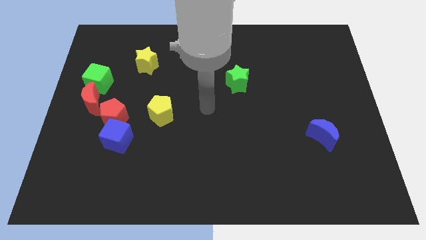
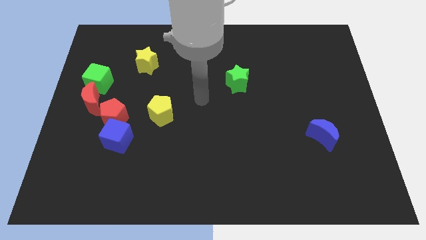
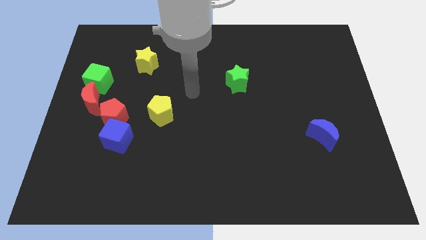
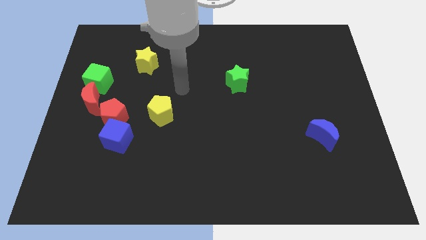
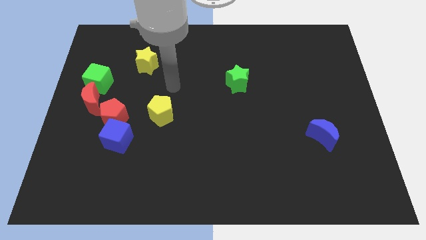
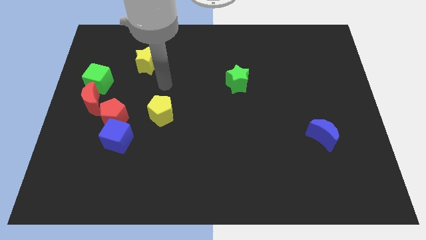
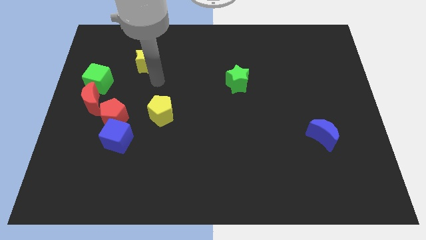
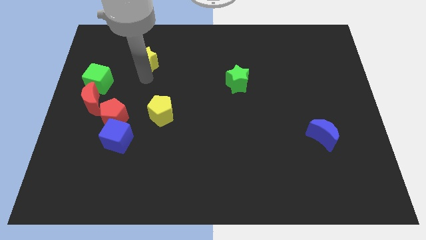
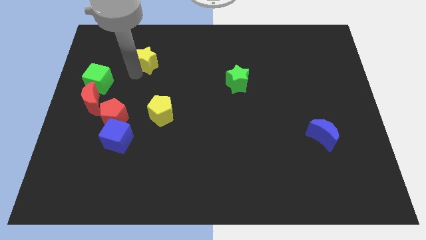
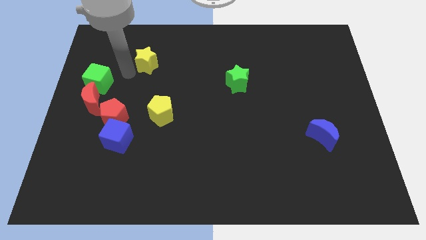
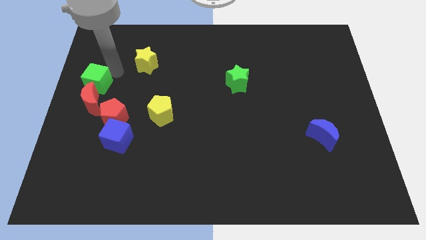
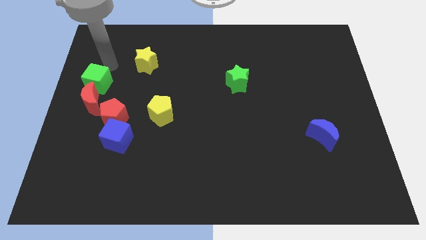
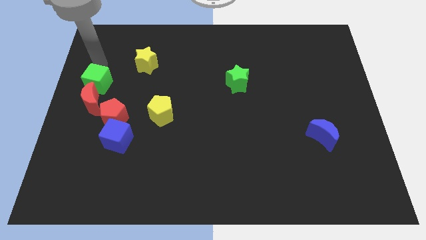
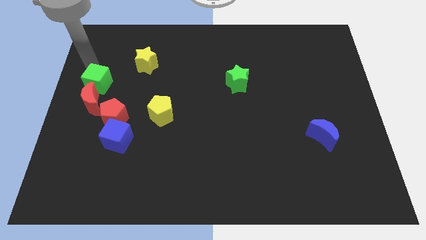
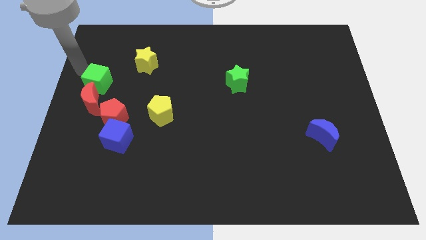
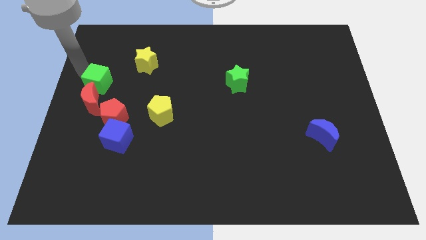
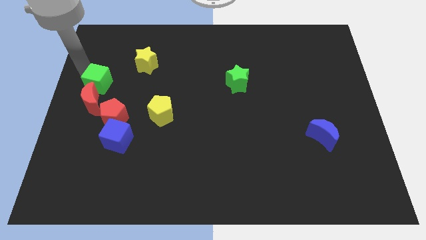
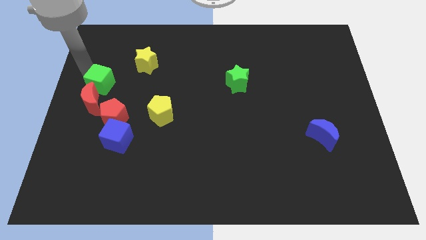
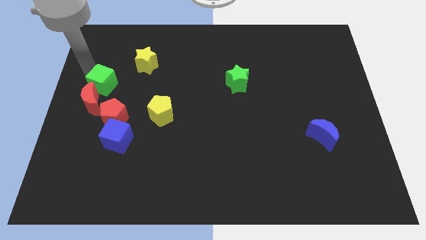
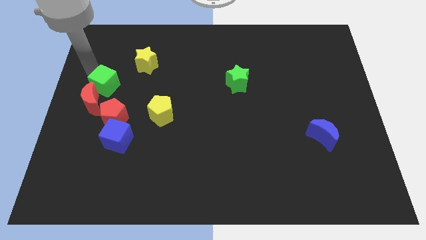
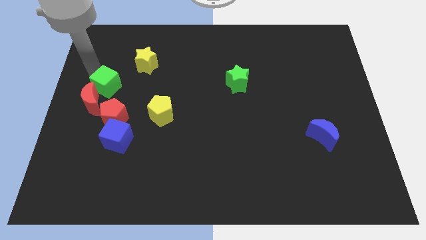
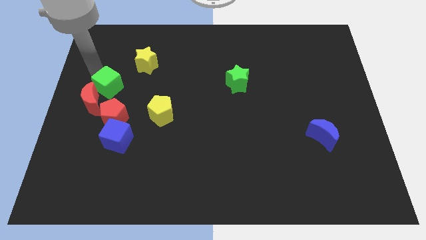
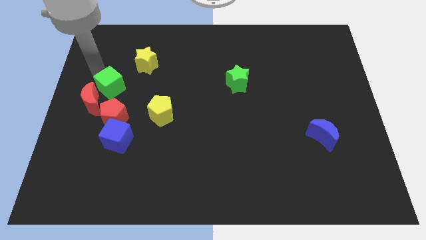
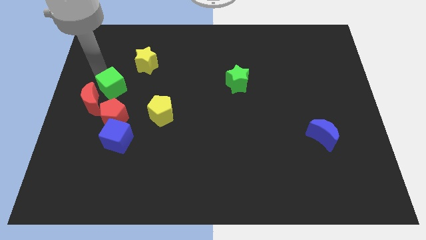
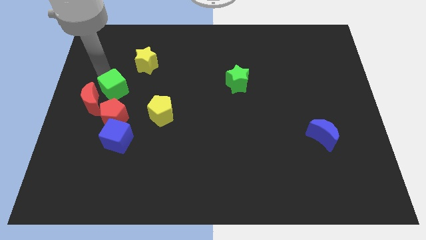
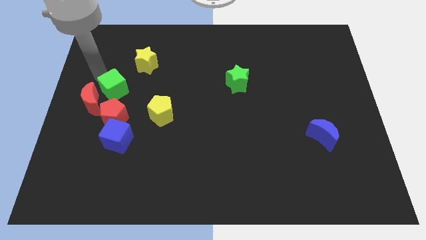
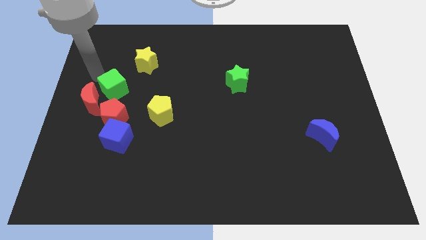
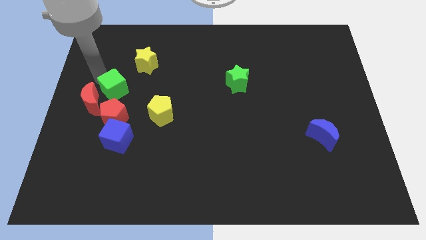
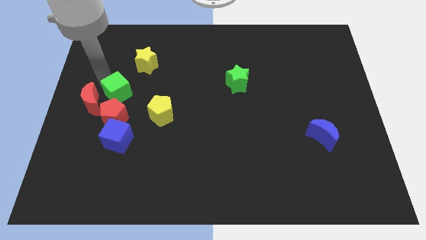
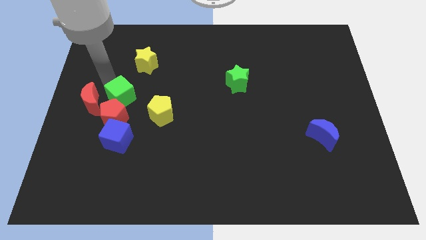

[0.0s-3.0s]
push the green cube downwards and then right a bit

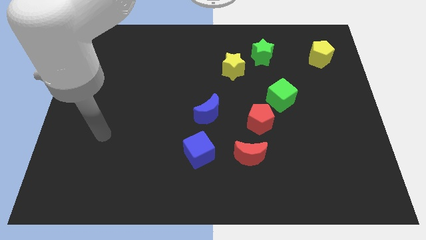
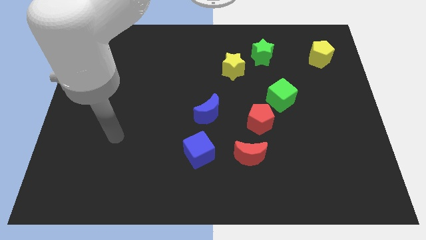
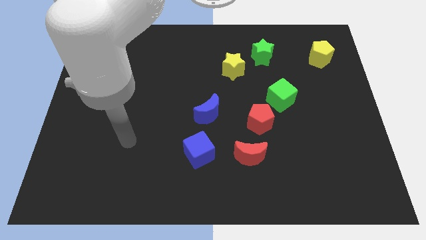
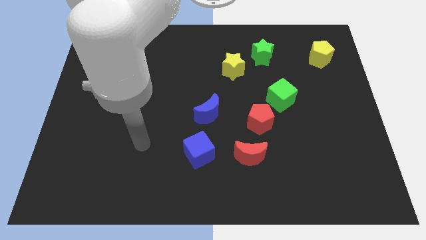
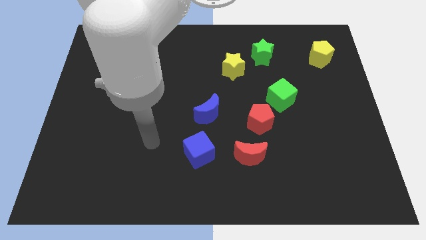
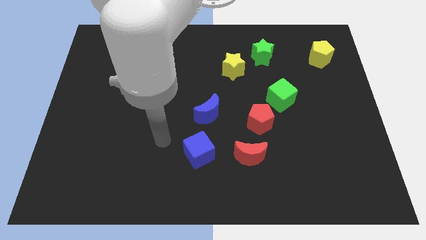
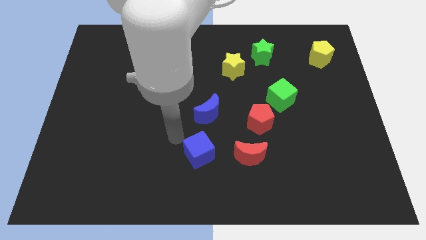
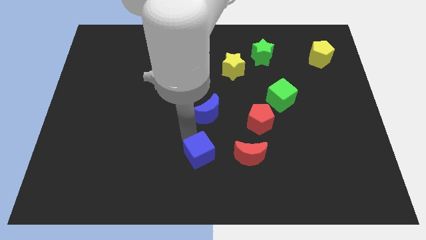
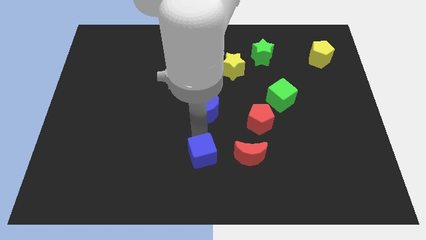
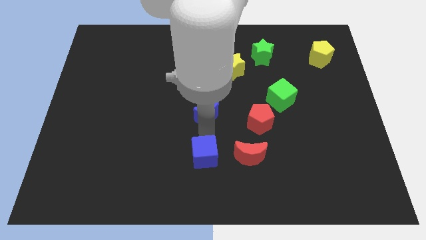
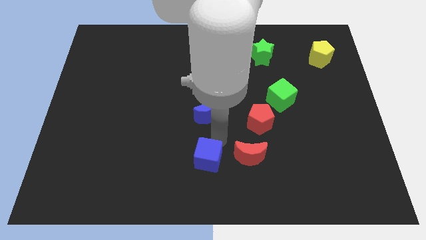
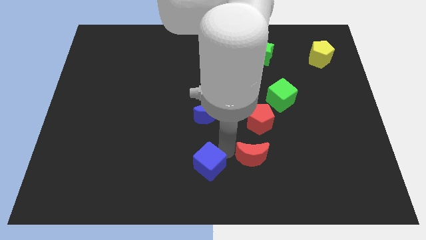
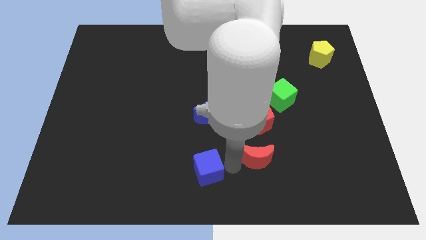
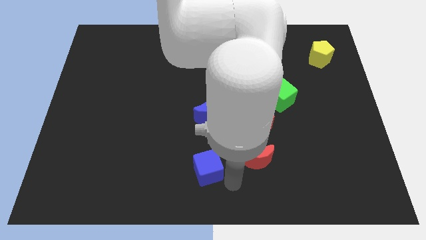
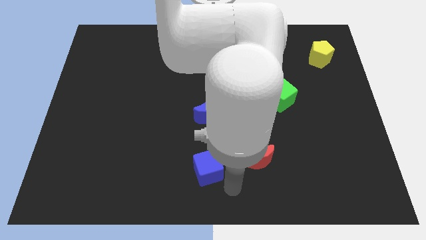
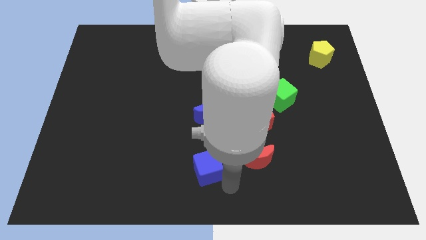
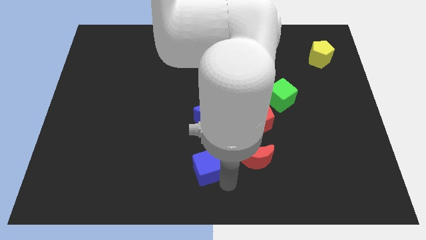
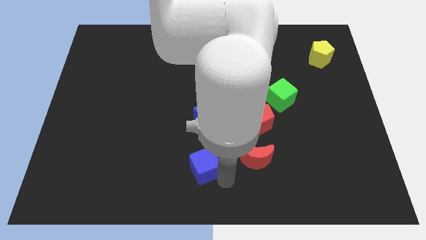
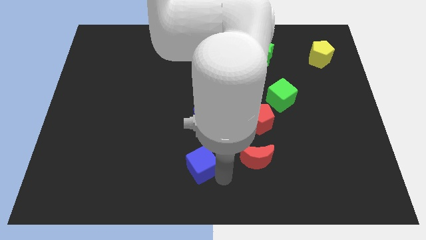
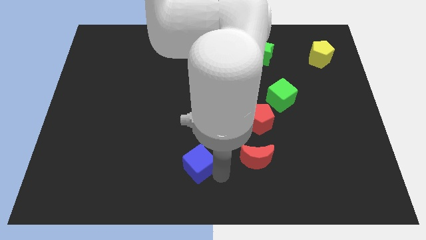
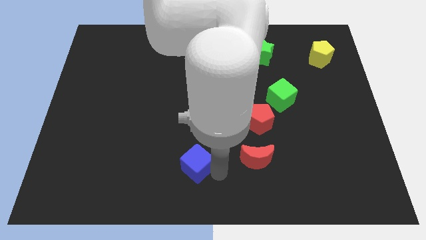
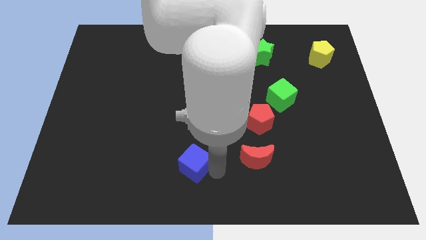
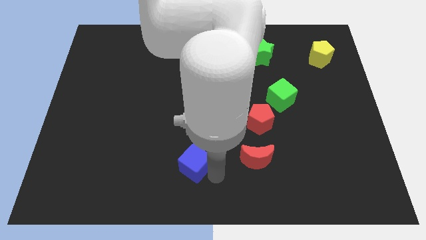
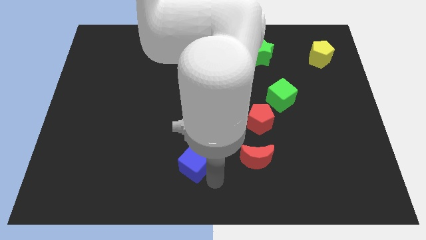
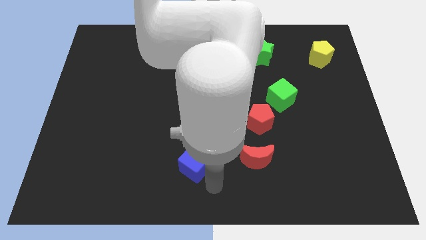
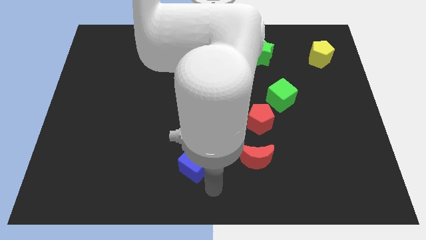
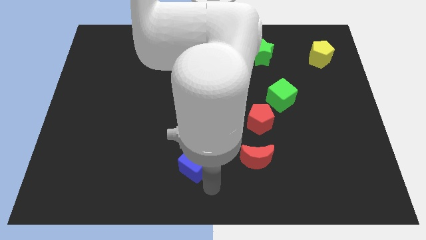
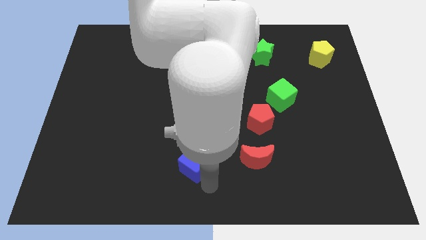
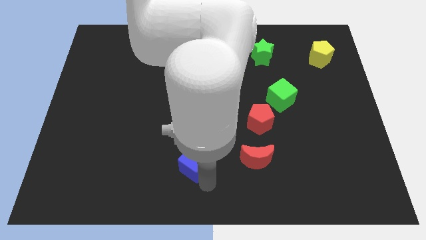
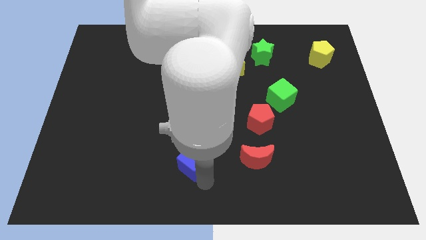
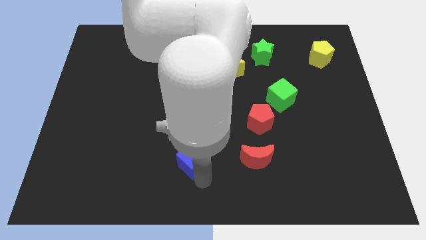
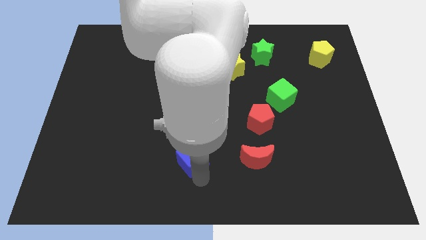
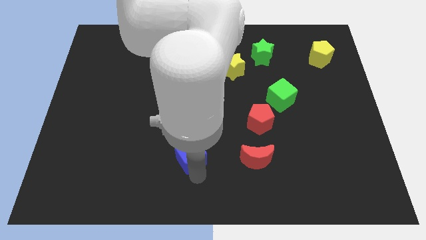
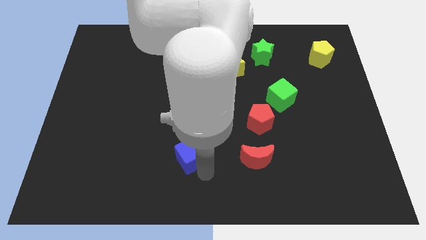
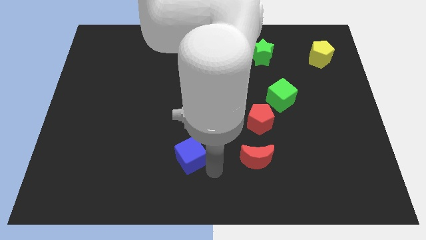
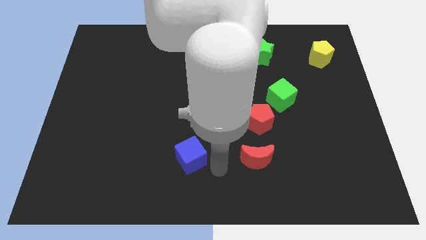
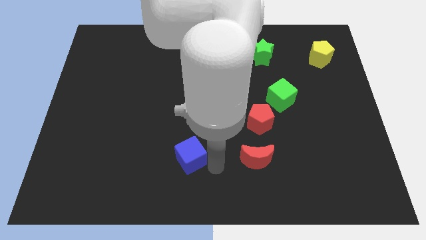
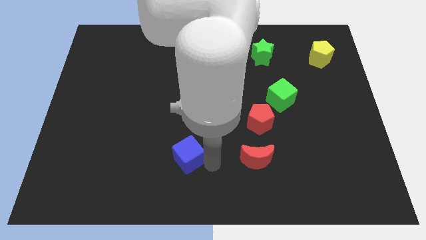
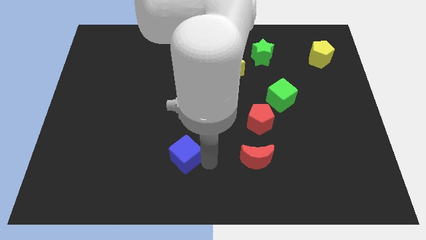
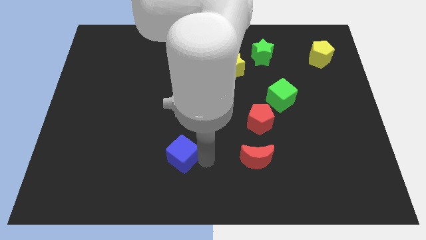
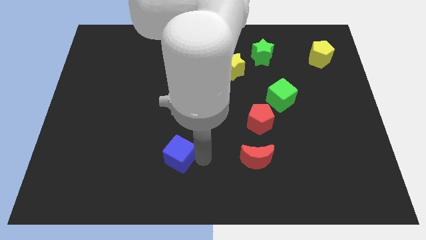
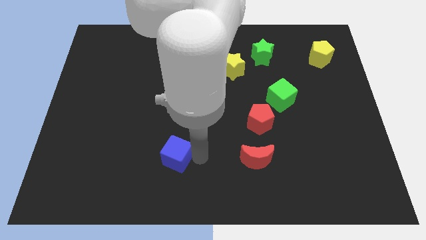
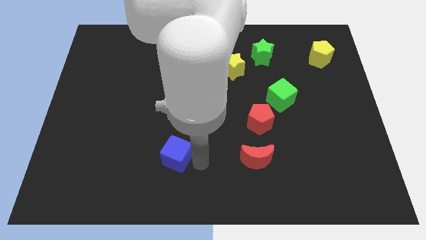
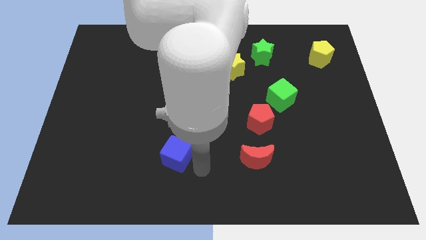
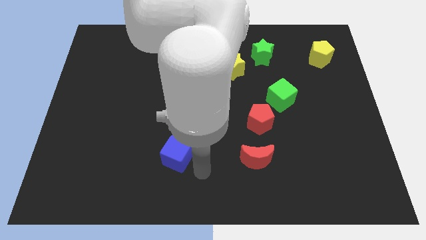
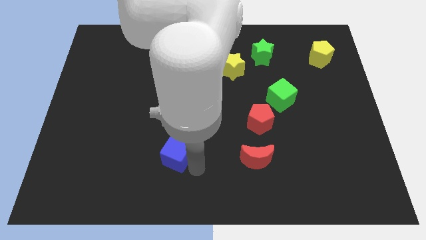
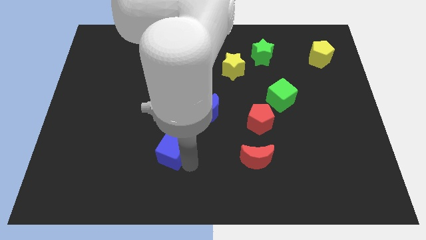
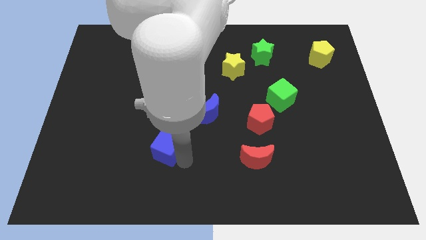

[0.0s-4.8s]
move the blue cube a little bit to the left
